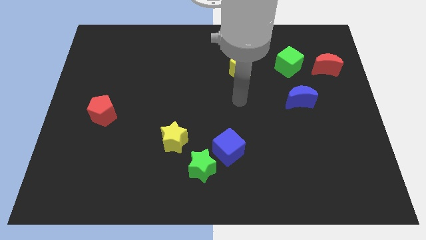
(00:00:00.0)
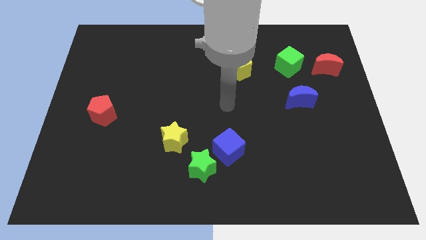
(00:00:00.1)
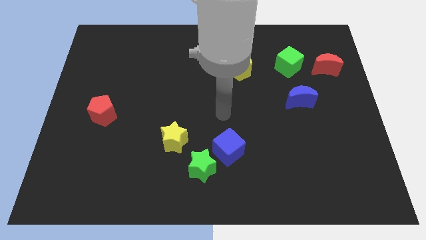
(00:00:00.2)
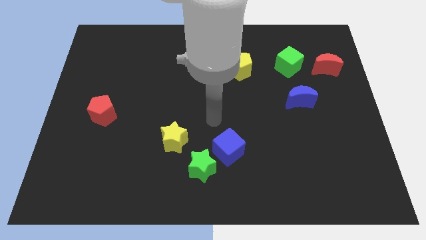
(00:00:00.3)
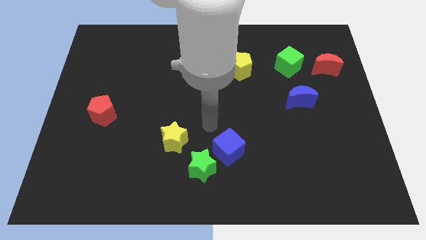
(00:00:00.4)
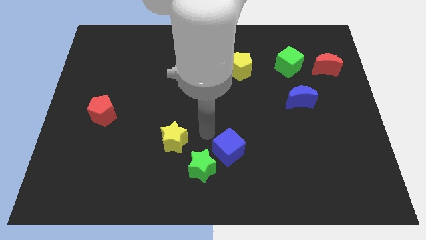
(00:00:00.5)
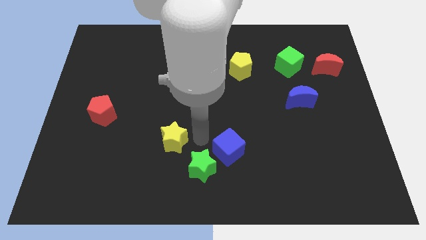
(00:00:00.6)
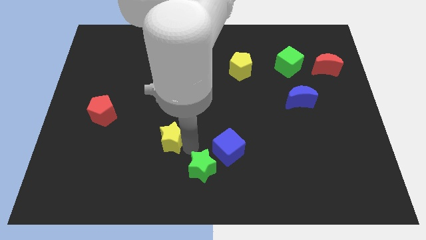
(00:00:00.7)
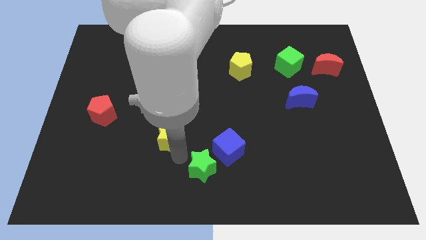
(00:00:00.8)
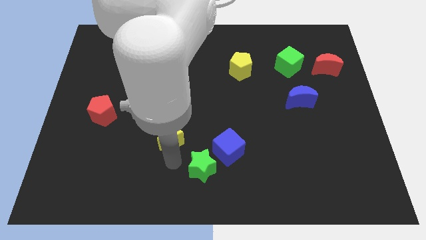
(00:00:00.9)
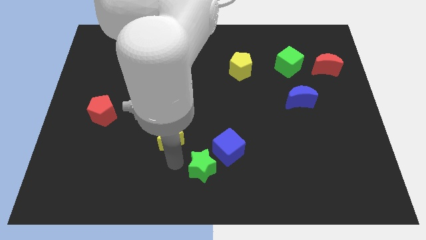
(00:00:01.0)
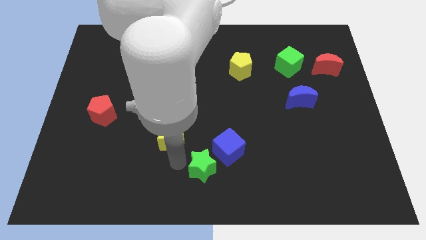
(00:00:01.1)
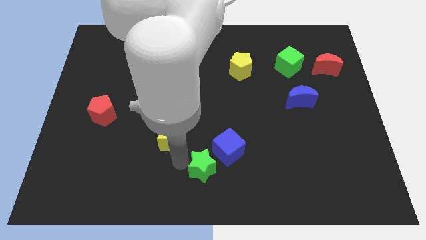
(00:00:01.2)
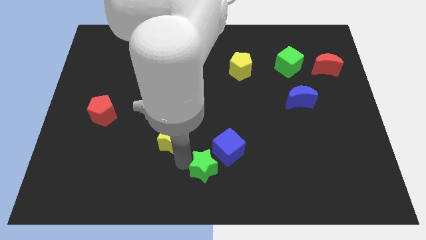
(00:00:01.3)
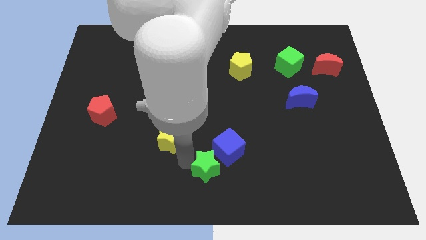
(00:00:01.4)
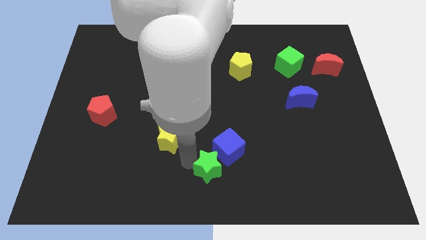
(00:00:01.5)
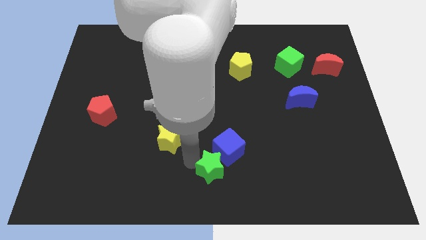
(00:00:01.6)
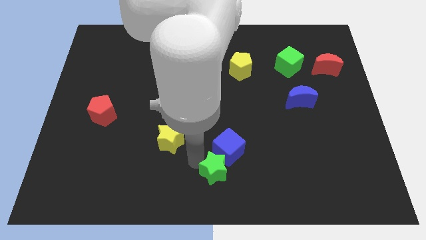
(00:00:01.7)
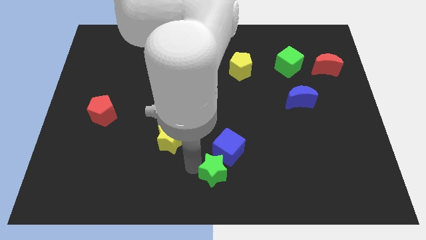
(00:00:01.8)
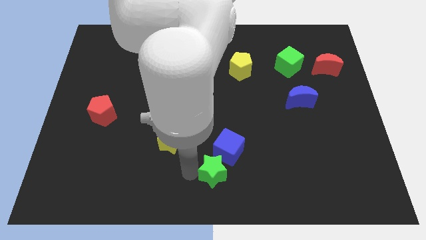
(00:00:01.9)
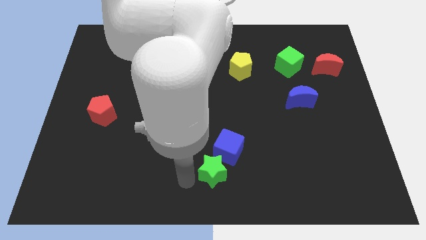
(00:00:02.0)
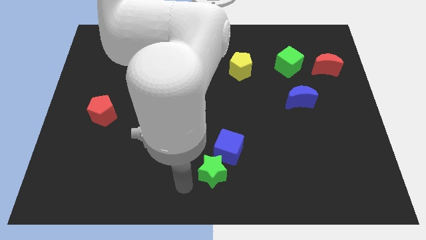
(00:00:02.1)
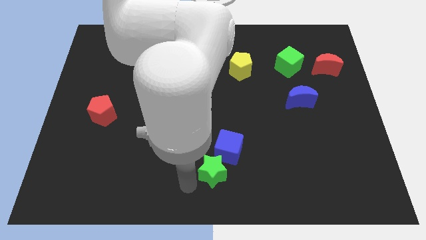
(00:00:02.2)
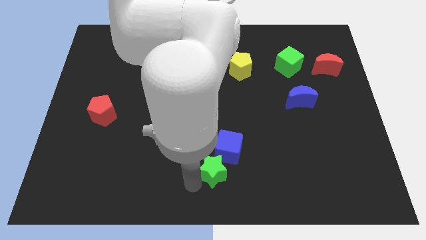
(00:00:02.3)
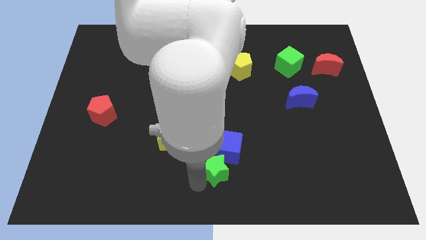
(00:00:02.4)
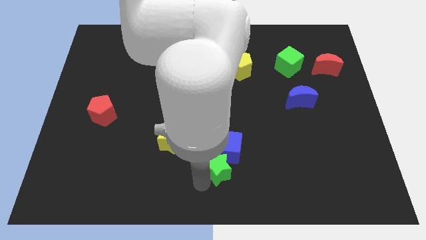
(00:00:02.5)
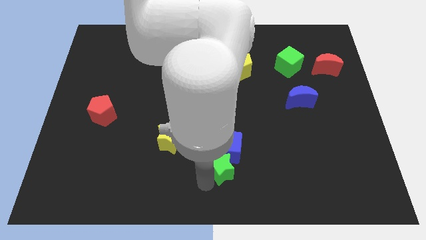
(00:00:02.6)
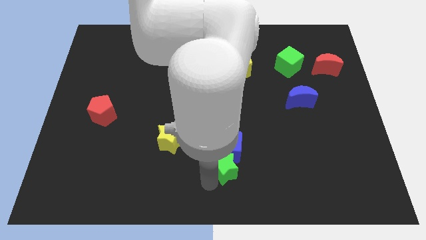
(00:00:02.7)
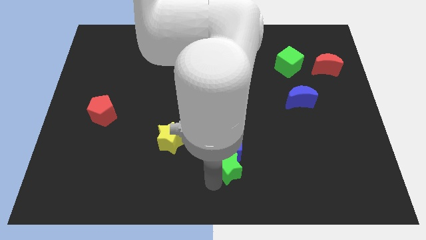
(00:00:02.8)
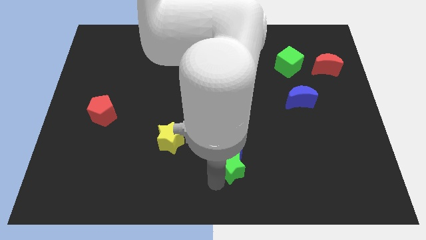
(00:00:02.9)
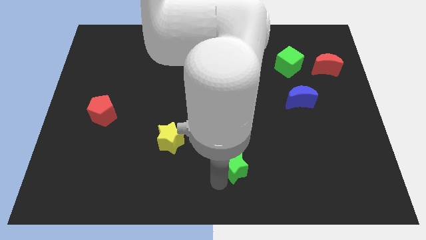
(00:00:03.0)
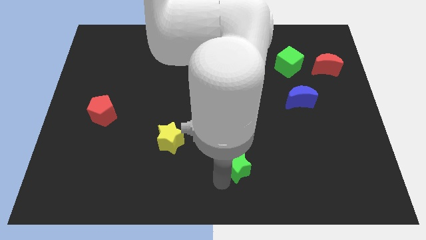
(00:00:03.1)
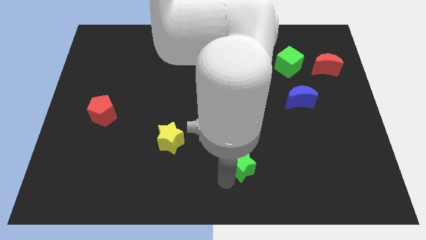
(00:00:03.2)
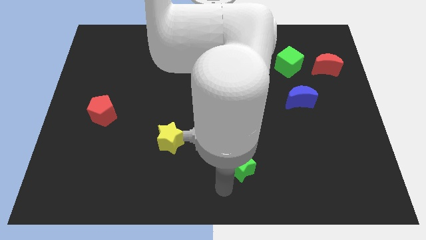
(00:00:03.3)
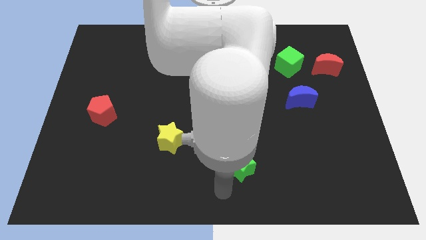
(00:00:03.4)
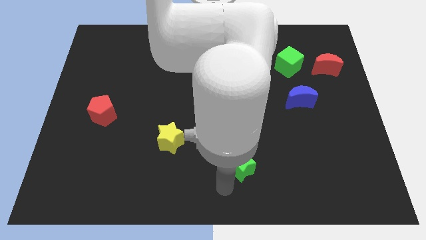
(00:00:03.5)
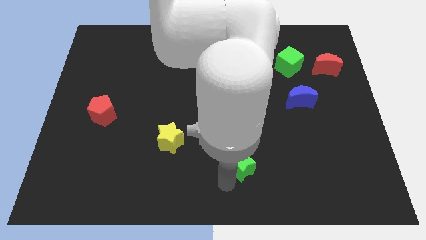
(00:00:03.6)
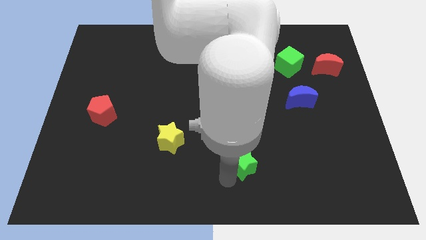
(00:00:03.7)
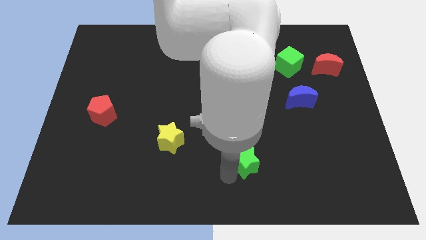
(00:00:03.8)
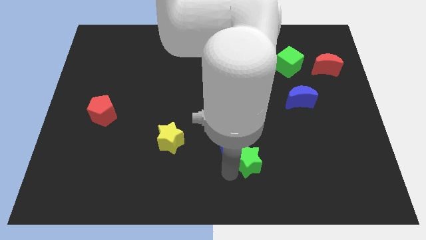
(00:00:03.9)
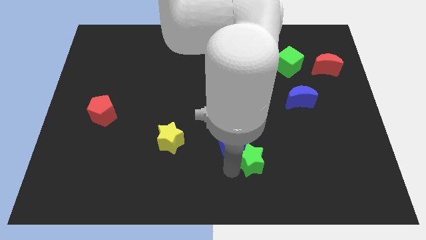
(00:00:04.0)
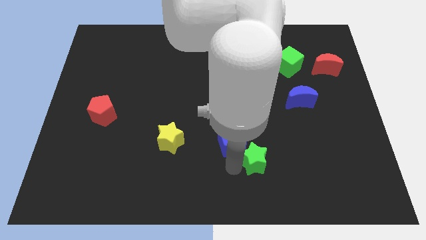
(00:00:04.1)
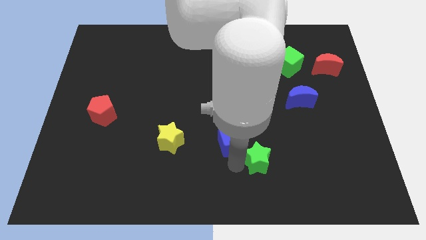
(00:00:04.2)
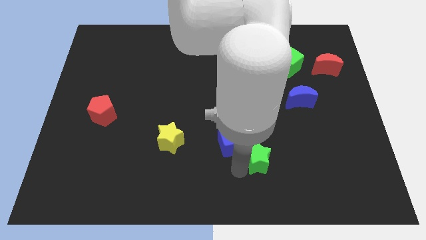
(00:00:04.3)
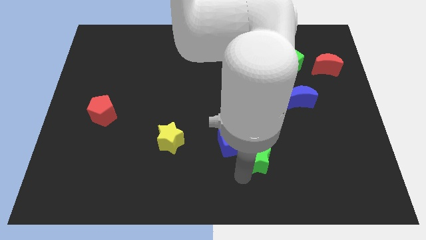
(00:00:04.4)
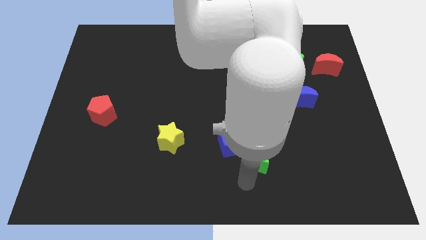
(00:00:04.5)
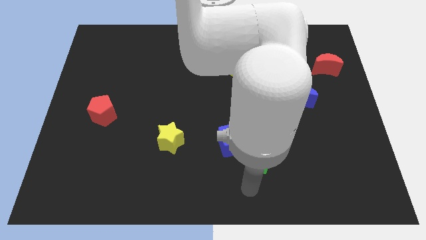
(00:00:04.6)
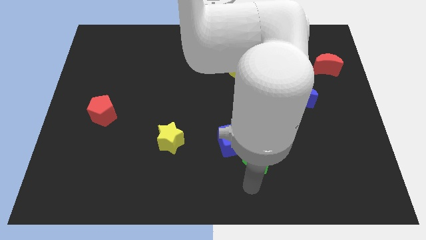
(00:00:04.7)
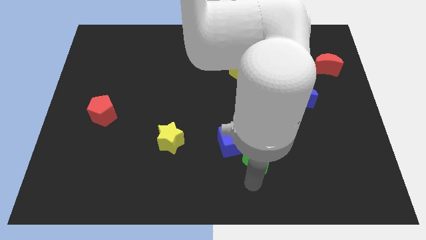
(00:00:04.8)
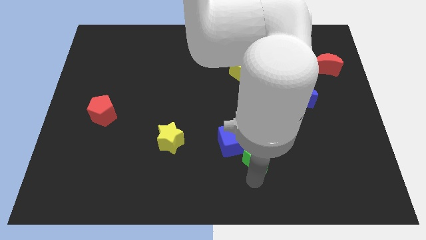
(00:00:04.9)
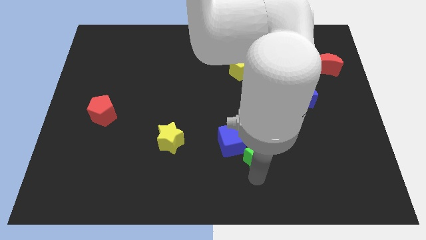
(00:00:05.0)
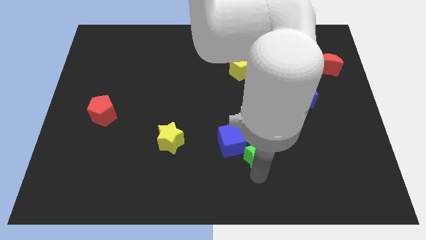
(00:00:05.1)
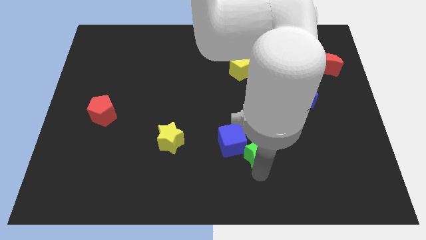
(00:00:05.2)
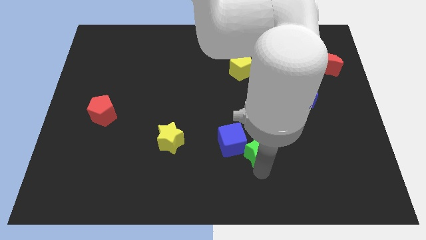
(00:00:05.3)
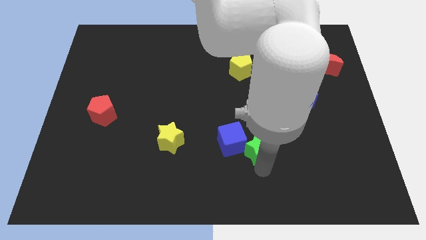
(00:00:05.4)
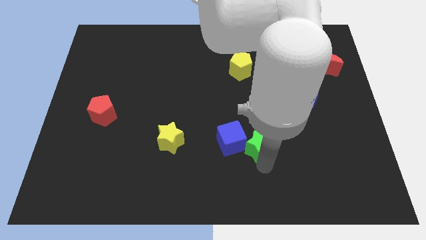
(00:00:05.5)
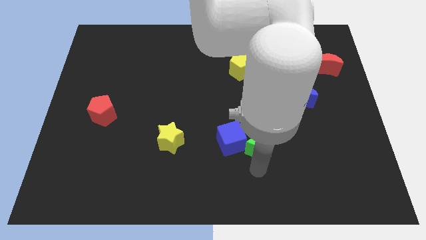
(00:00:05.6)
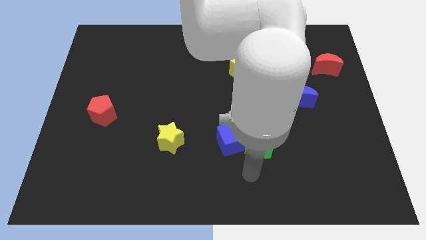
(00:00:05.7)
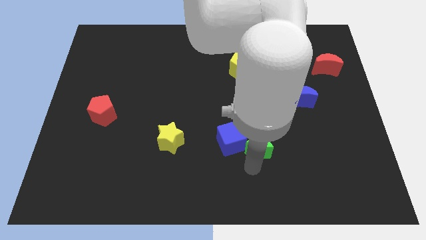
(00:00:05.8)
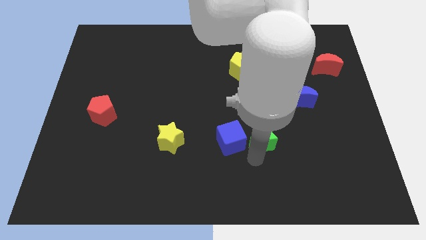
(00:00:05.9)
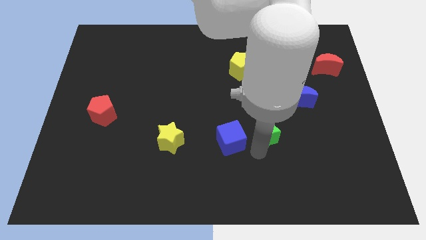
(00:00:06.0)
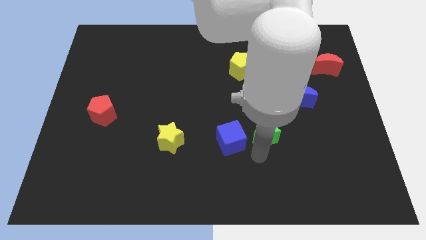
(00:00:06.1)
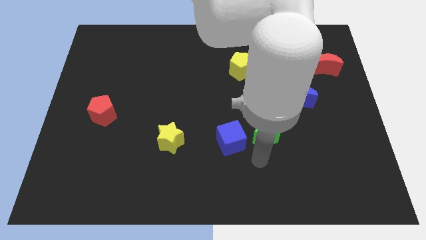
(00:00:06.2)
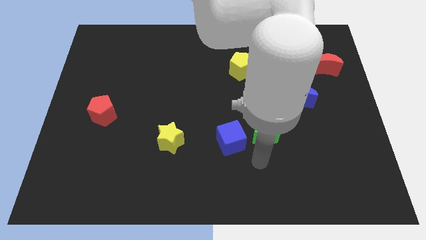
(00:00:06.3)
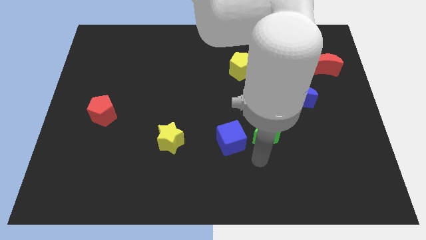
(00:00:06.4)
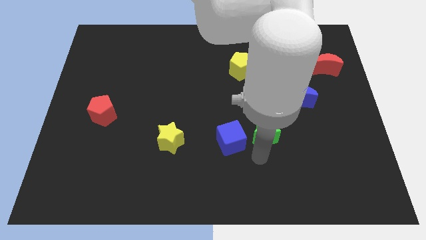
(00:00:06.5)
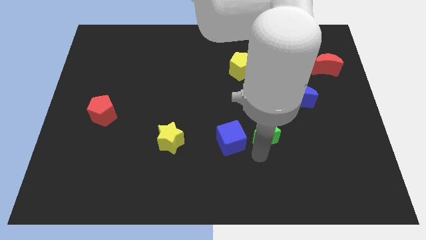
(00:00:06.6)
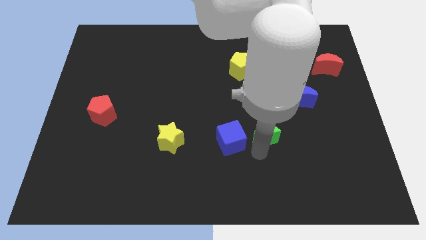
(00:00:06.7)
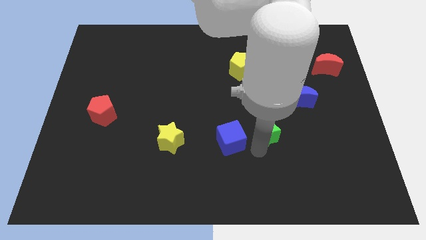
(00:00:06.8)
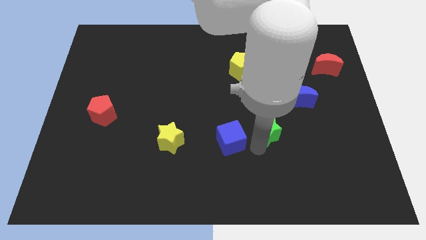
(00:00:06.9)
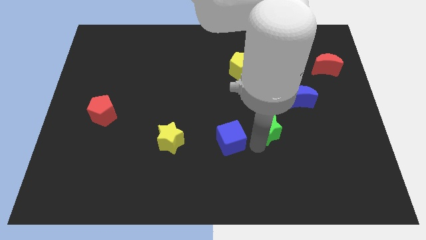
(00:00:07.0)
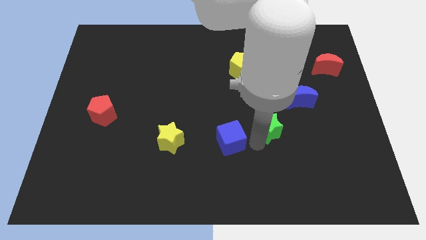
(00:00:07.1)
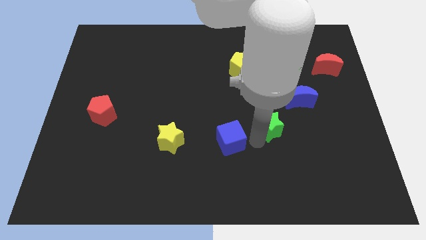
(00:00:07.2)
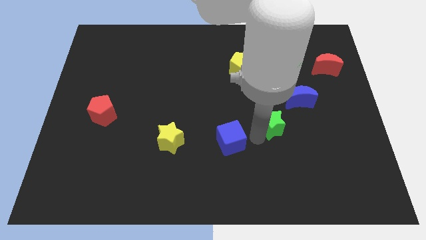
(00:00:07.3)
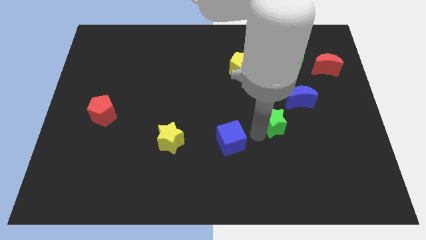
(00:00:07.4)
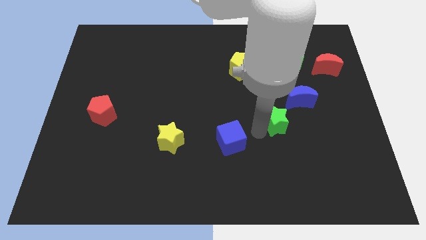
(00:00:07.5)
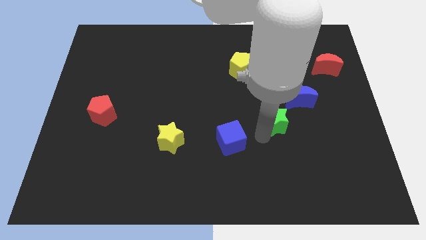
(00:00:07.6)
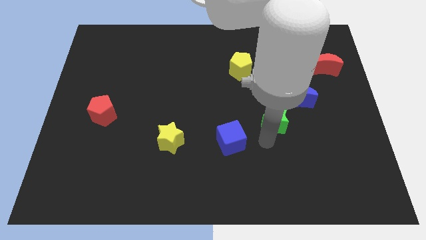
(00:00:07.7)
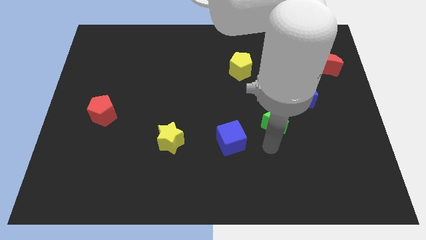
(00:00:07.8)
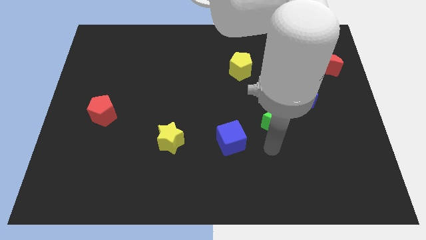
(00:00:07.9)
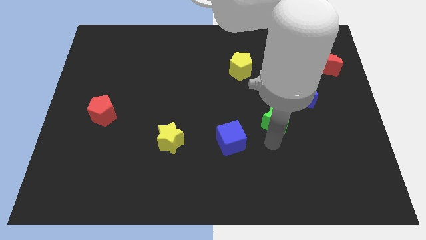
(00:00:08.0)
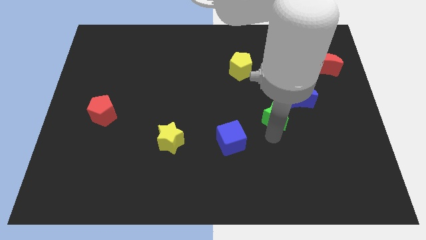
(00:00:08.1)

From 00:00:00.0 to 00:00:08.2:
push the green star diagonally up and to the right
